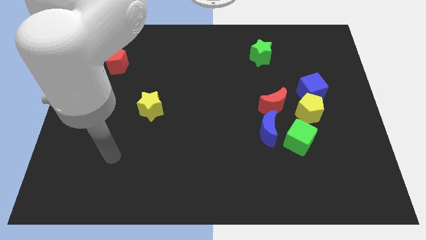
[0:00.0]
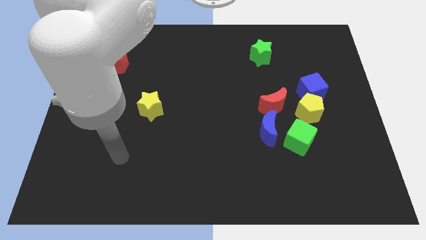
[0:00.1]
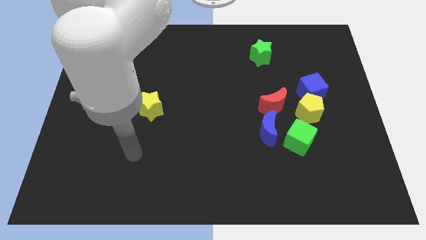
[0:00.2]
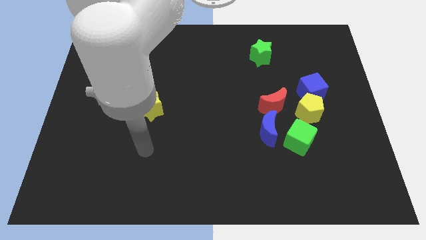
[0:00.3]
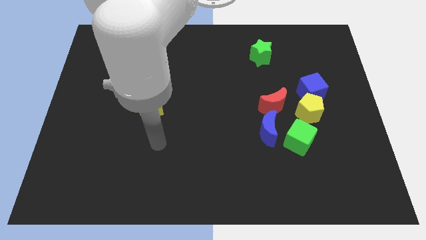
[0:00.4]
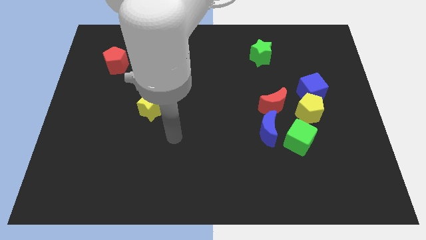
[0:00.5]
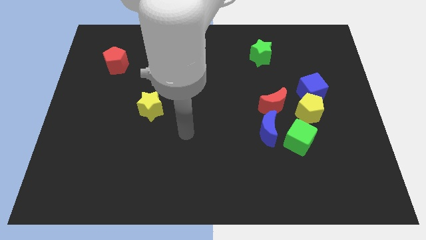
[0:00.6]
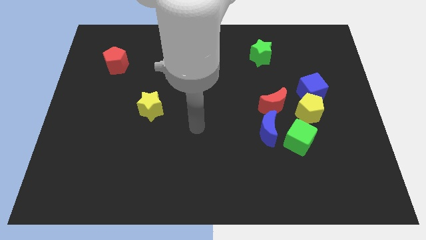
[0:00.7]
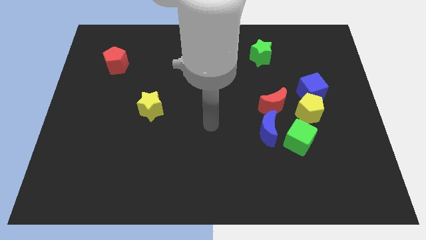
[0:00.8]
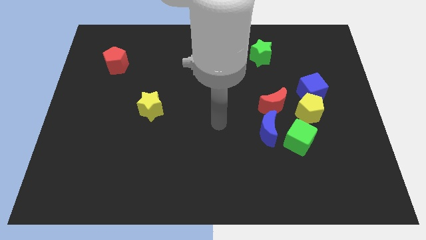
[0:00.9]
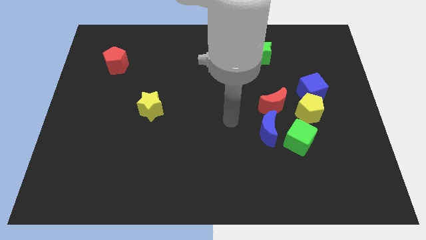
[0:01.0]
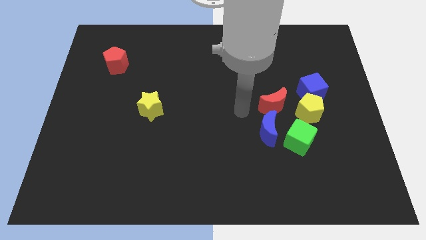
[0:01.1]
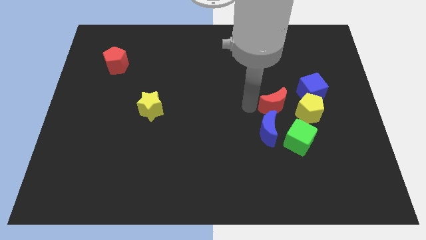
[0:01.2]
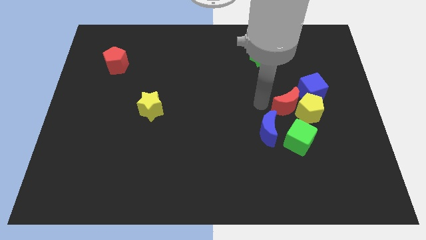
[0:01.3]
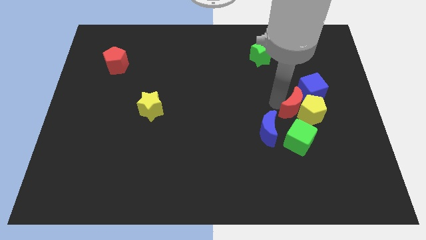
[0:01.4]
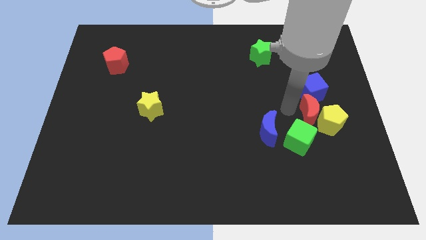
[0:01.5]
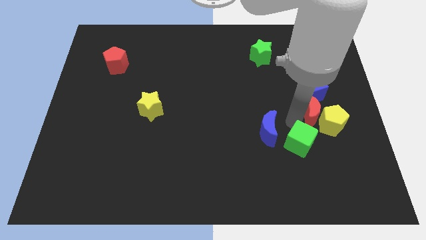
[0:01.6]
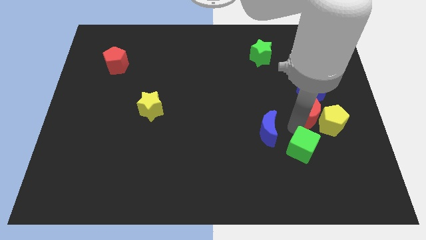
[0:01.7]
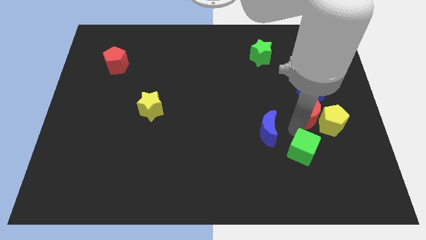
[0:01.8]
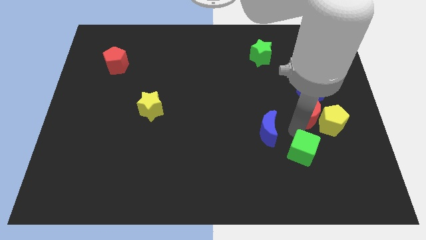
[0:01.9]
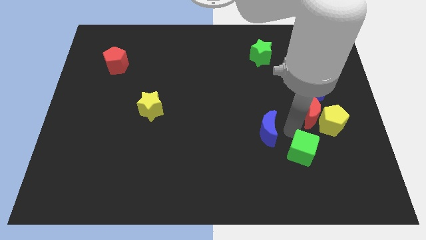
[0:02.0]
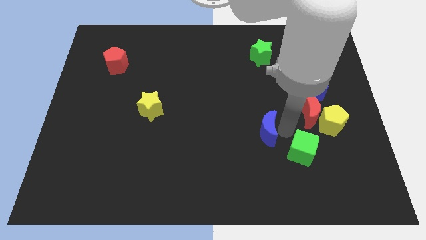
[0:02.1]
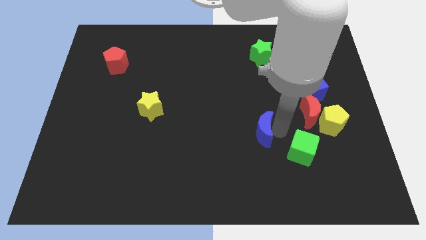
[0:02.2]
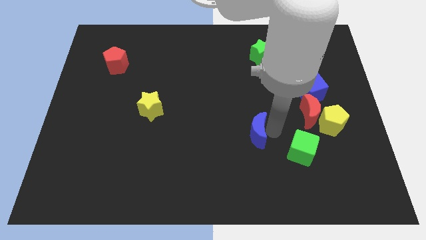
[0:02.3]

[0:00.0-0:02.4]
pull the blue moon apart from the green cube and red moon

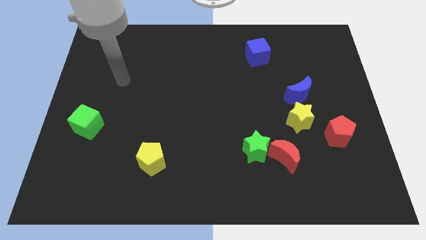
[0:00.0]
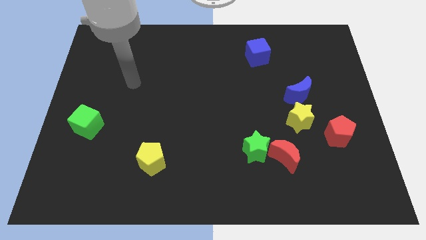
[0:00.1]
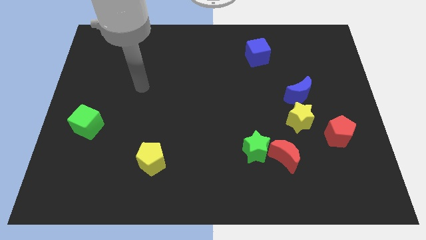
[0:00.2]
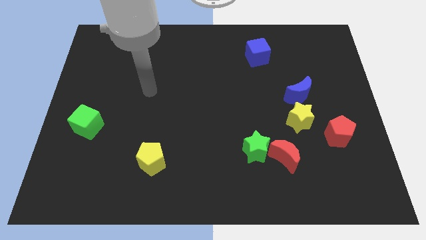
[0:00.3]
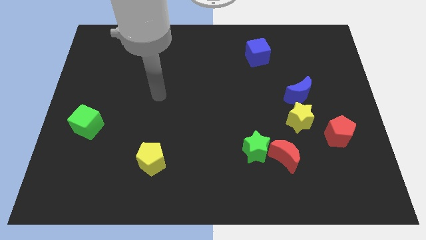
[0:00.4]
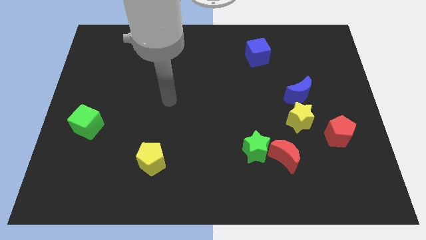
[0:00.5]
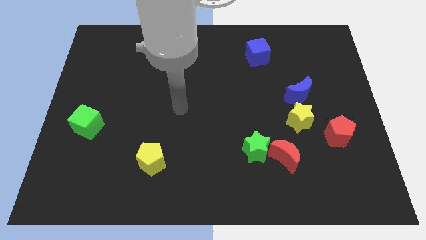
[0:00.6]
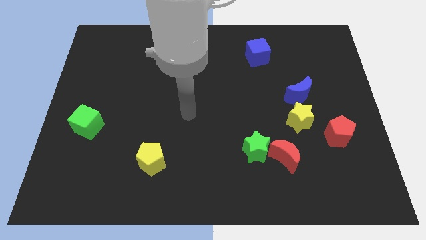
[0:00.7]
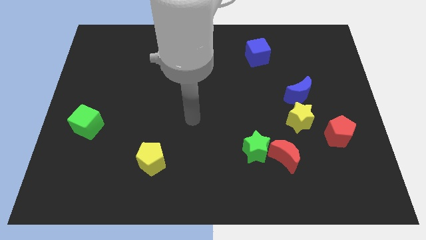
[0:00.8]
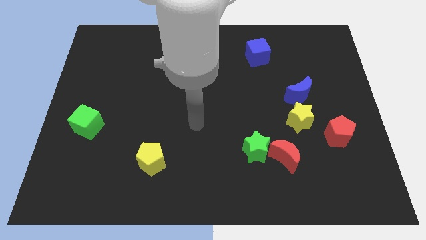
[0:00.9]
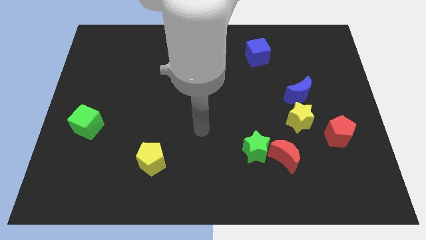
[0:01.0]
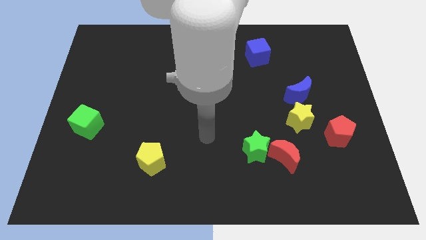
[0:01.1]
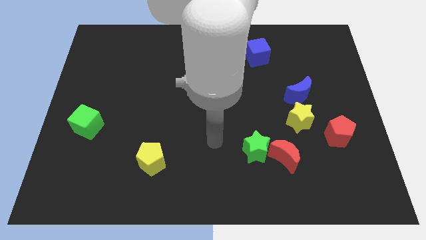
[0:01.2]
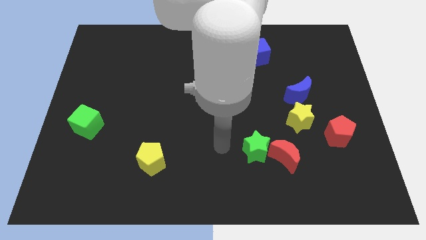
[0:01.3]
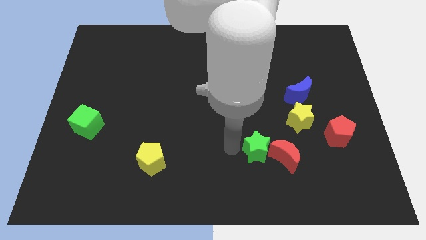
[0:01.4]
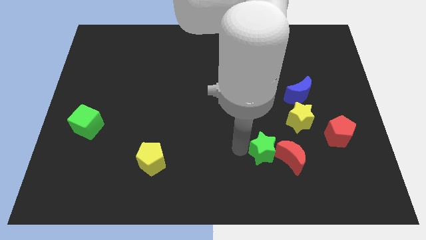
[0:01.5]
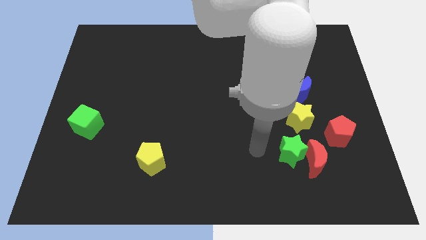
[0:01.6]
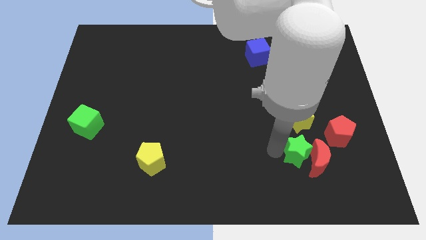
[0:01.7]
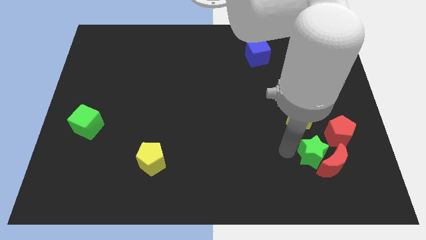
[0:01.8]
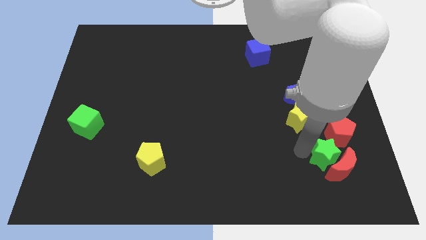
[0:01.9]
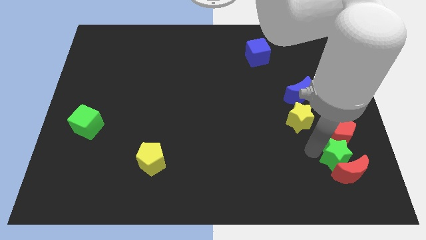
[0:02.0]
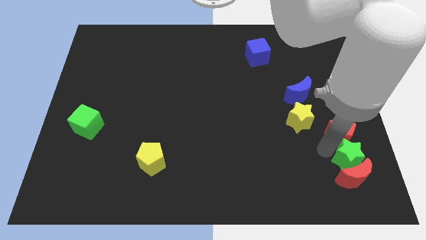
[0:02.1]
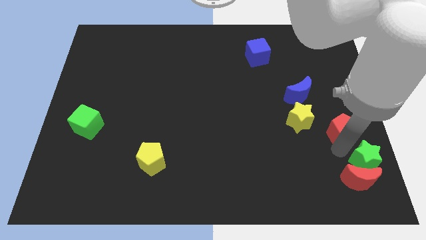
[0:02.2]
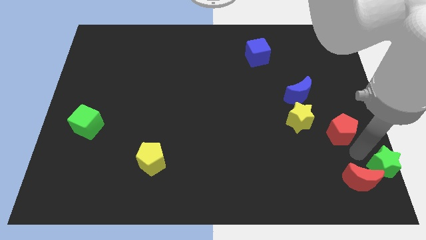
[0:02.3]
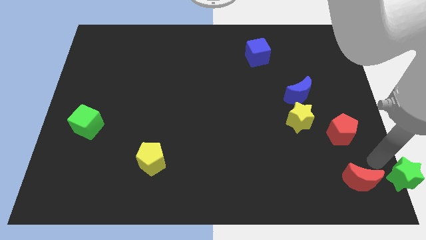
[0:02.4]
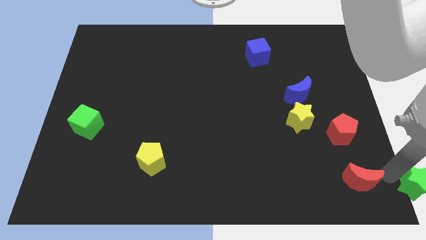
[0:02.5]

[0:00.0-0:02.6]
separate the red moon from the green star

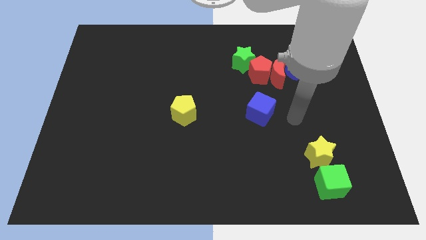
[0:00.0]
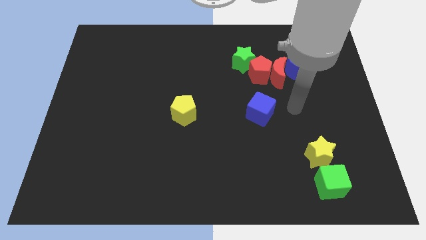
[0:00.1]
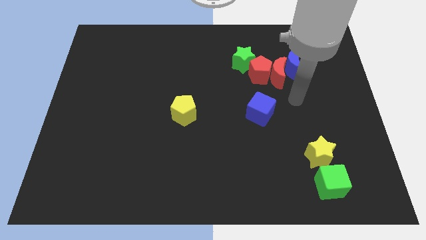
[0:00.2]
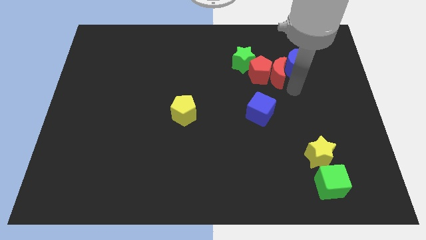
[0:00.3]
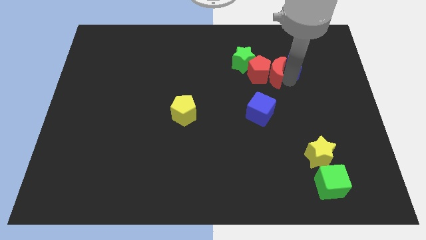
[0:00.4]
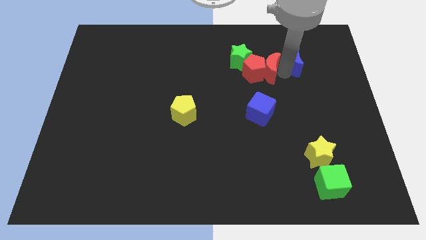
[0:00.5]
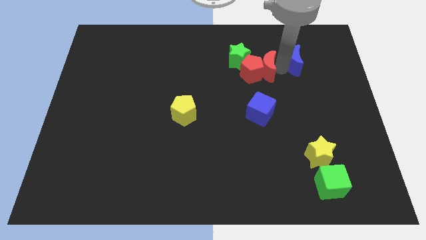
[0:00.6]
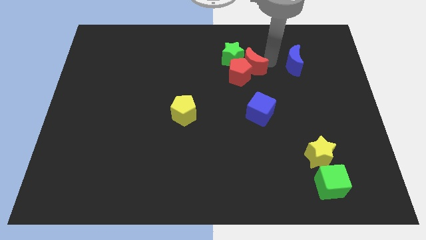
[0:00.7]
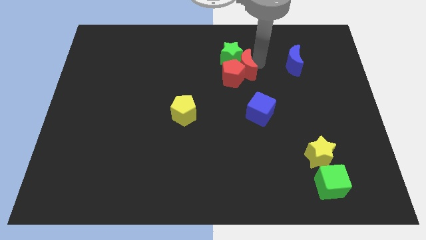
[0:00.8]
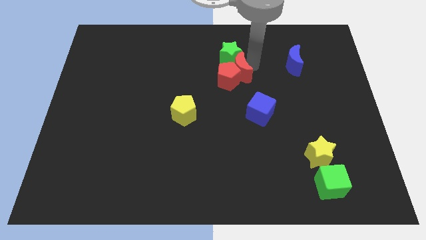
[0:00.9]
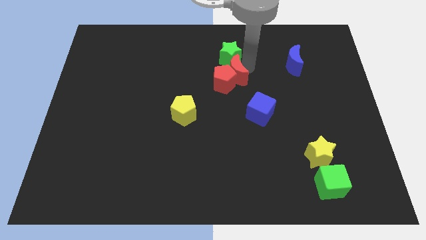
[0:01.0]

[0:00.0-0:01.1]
separate the red pentagon from the red moon, green star, and blue moon

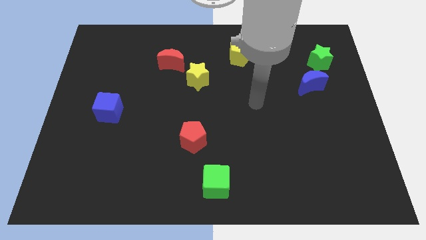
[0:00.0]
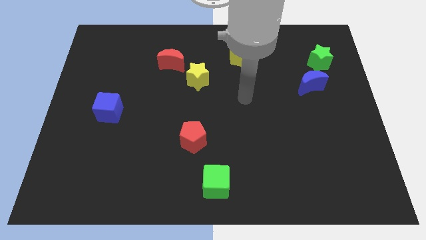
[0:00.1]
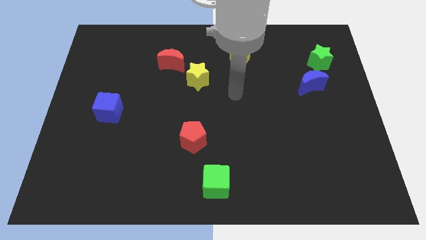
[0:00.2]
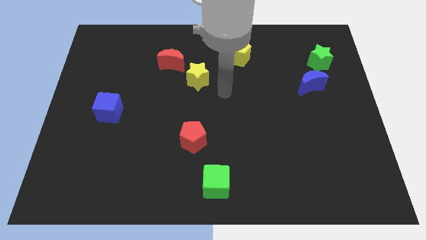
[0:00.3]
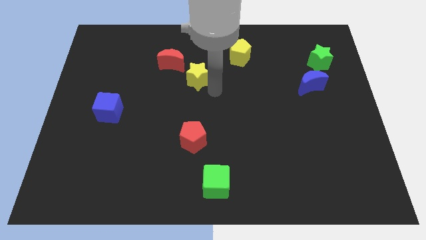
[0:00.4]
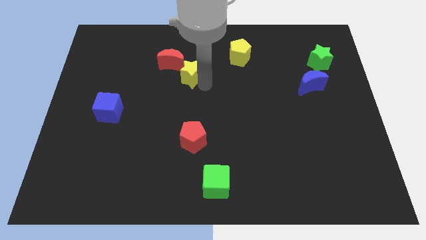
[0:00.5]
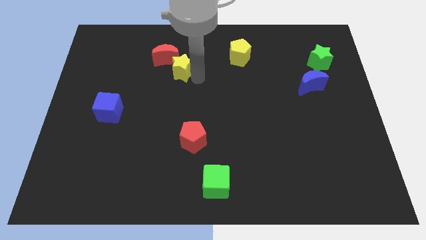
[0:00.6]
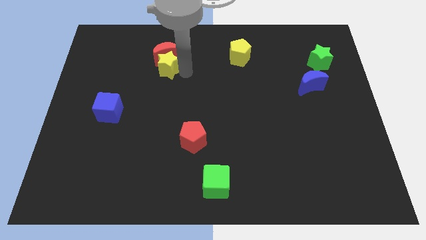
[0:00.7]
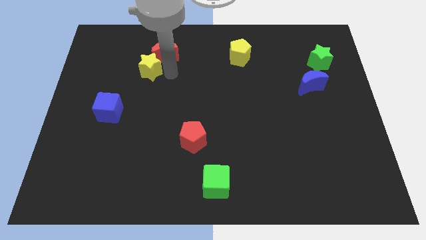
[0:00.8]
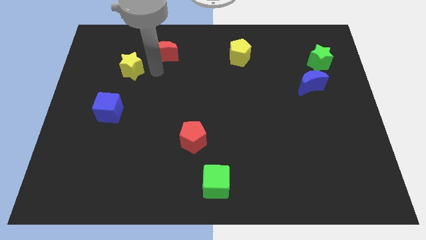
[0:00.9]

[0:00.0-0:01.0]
move the red moon away from the yellow star

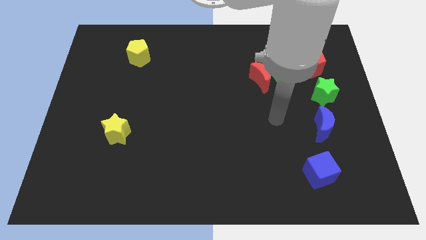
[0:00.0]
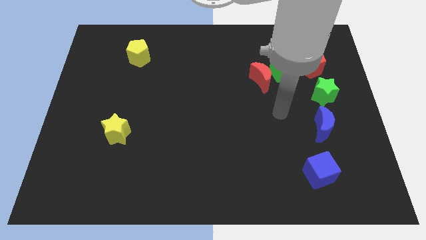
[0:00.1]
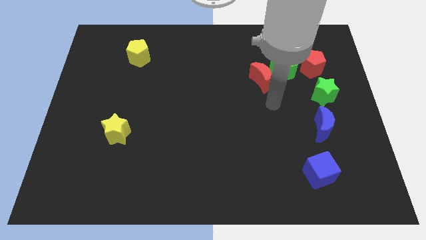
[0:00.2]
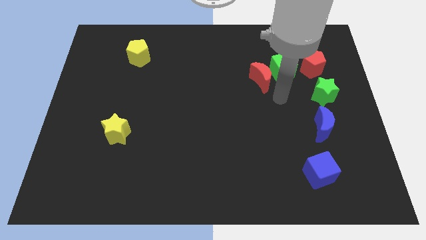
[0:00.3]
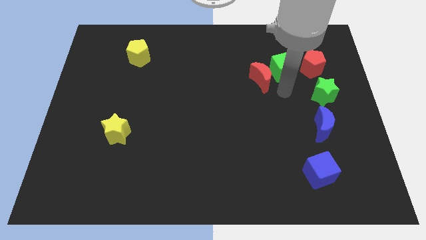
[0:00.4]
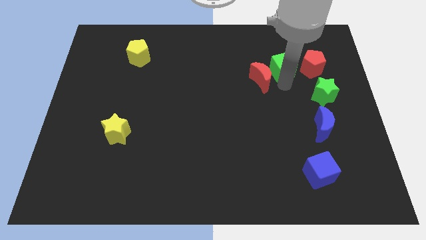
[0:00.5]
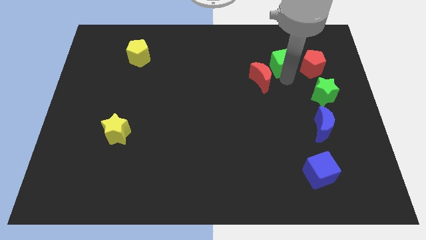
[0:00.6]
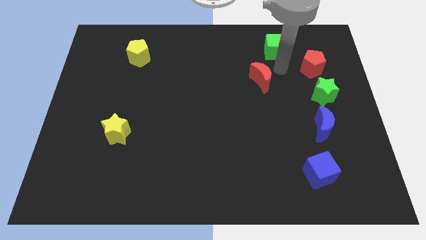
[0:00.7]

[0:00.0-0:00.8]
pull the red moon apart from the green cube

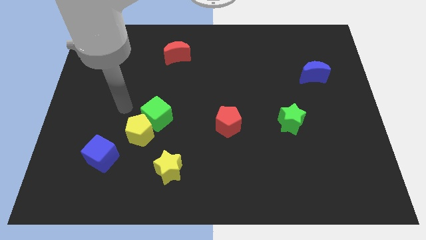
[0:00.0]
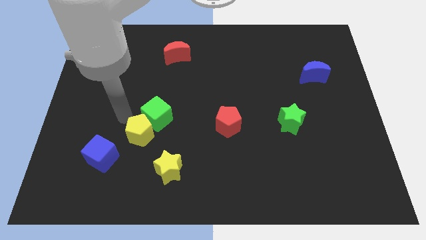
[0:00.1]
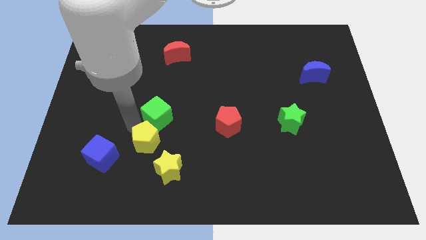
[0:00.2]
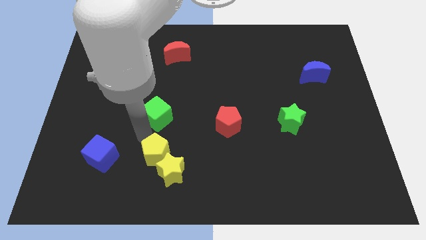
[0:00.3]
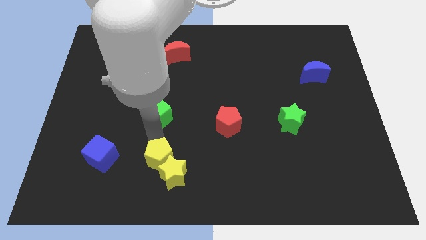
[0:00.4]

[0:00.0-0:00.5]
pull the green cube apart from the yellow pentagon

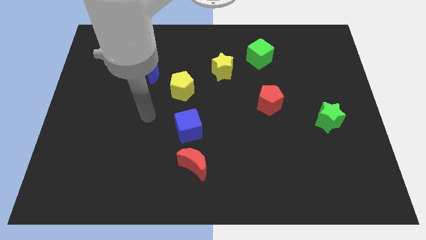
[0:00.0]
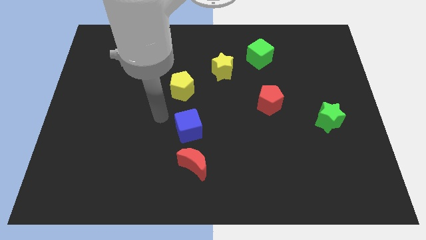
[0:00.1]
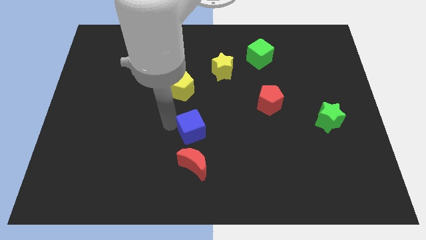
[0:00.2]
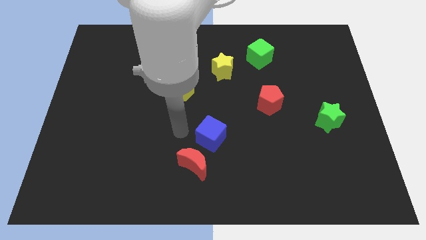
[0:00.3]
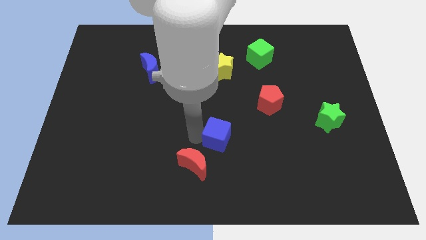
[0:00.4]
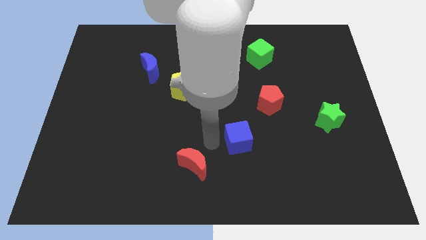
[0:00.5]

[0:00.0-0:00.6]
pull the red moon apart from the blue cube

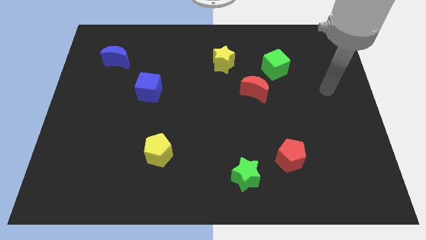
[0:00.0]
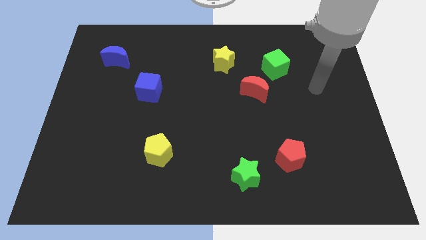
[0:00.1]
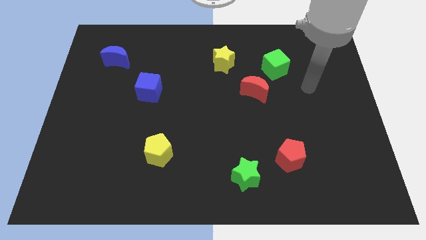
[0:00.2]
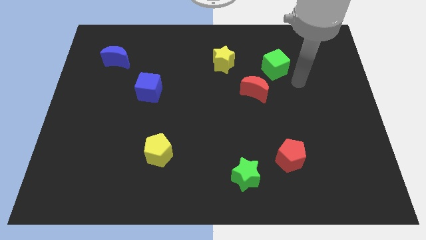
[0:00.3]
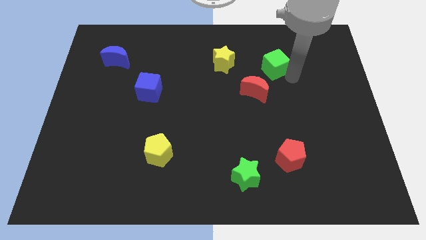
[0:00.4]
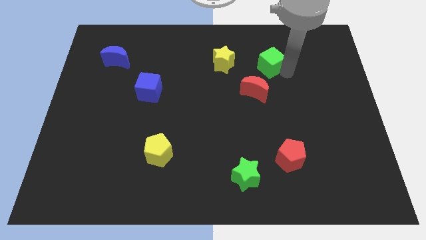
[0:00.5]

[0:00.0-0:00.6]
move the red moon away from the green cube
